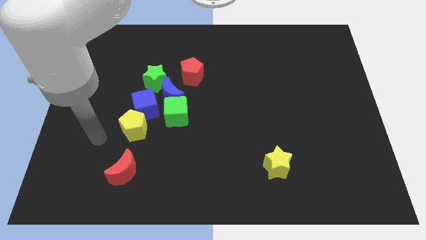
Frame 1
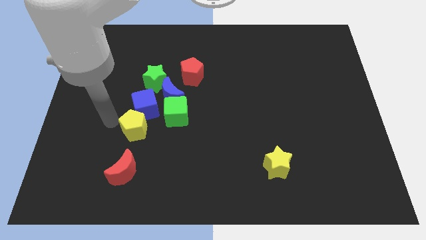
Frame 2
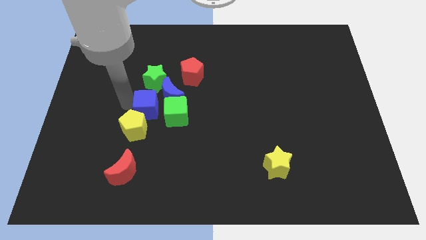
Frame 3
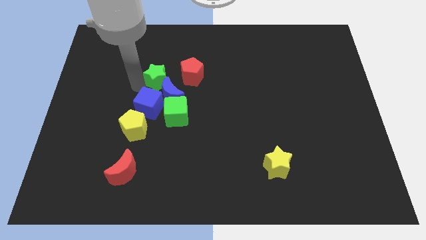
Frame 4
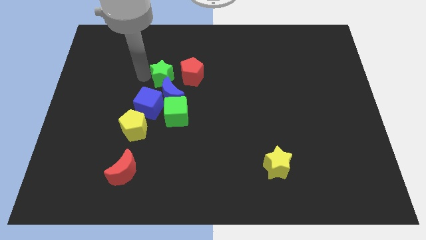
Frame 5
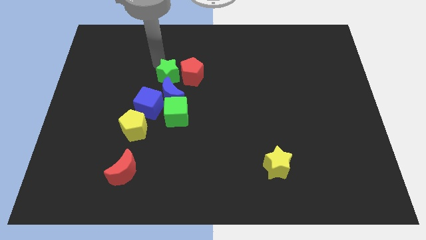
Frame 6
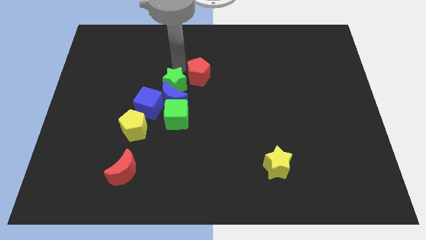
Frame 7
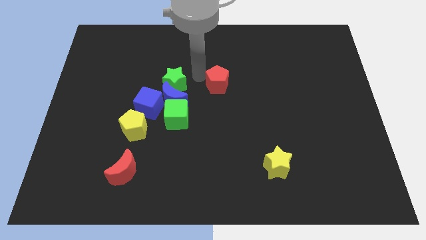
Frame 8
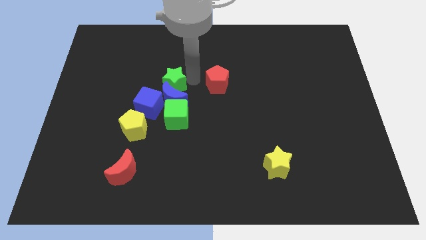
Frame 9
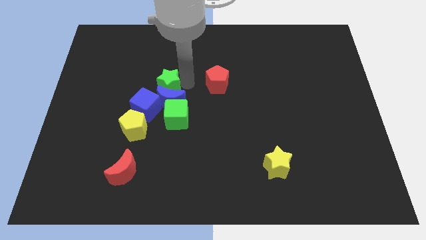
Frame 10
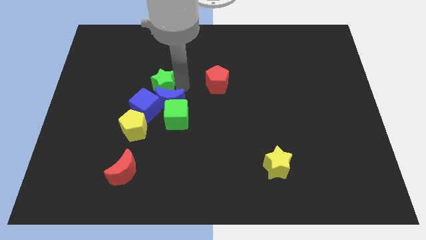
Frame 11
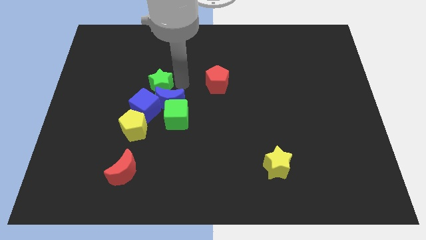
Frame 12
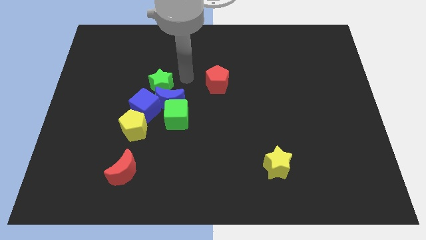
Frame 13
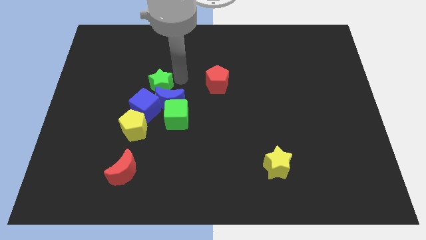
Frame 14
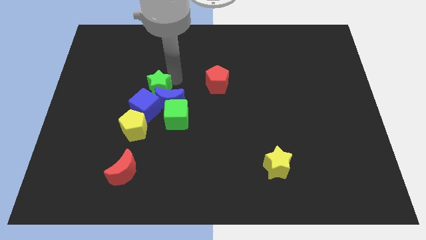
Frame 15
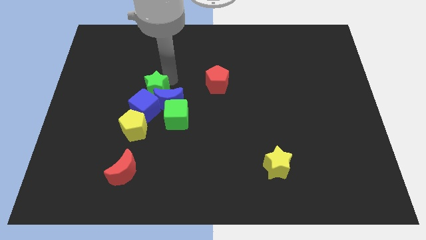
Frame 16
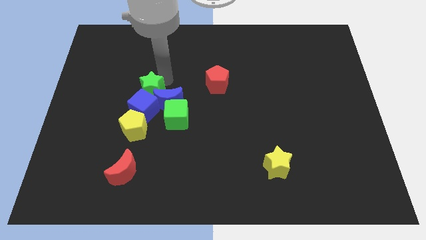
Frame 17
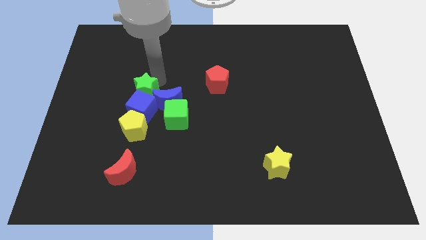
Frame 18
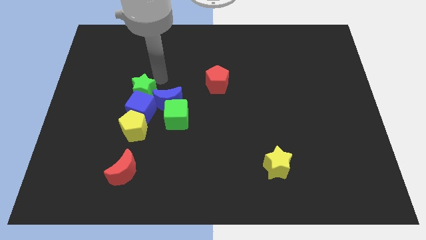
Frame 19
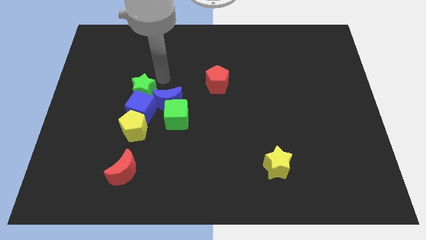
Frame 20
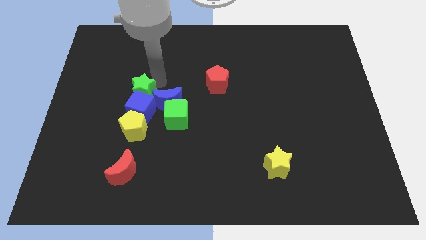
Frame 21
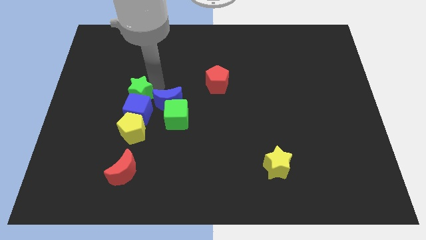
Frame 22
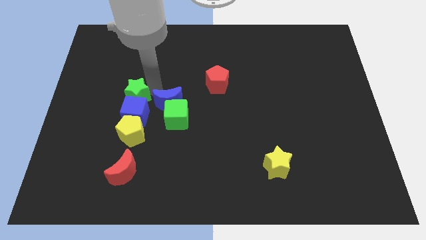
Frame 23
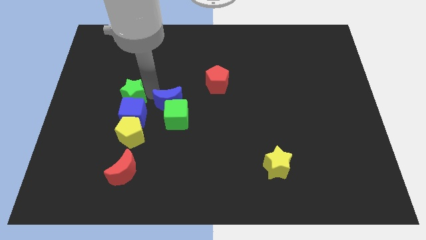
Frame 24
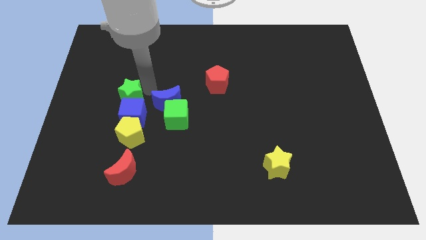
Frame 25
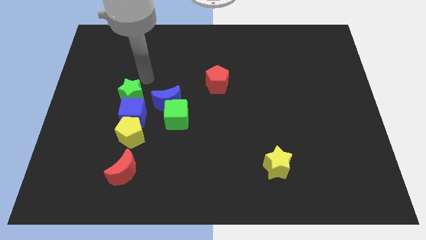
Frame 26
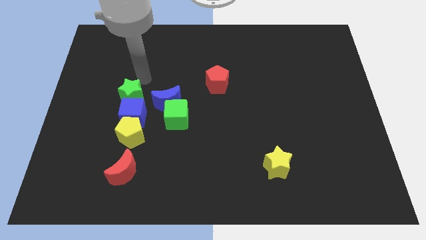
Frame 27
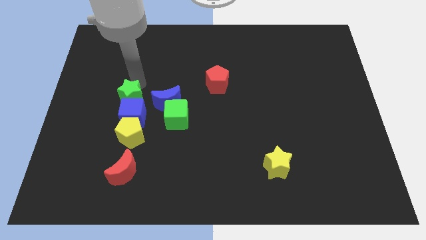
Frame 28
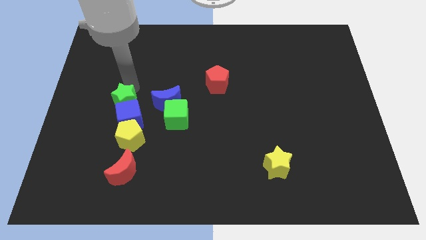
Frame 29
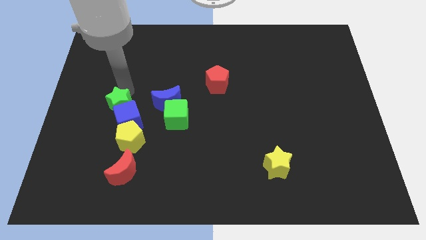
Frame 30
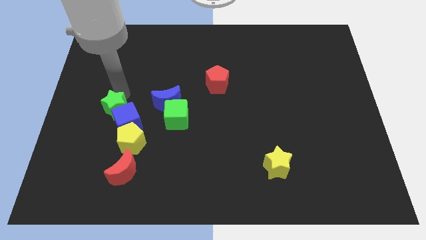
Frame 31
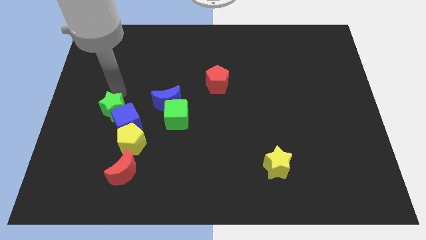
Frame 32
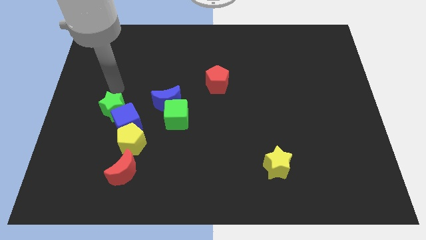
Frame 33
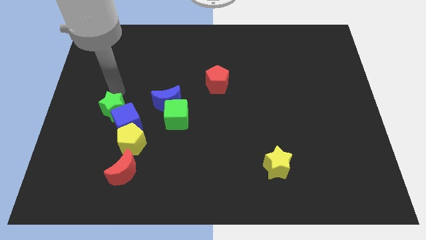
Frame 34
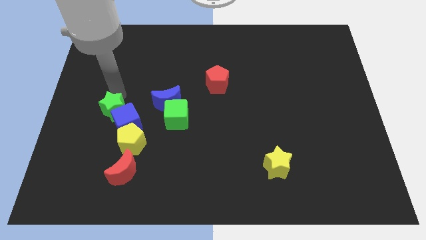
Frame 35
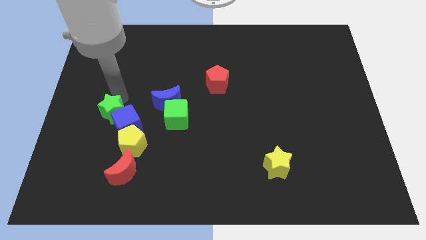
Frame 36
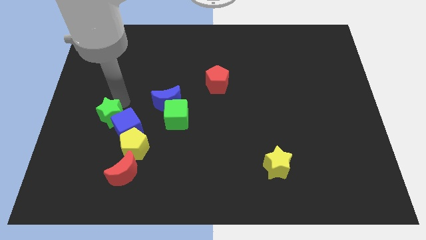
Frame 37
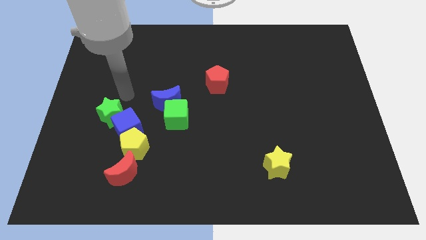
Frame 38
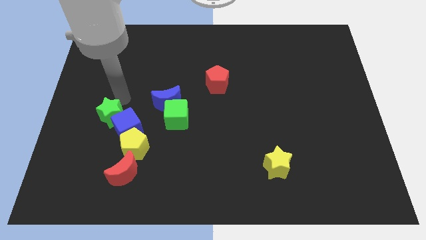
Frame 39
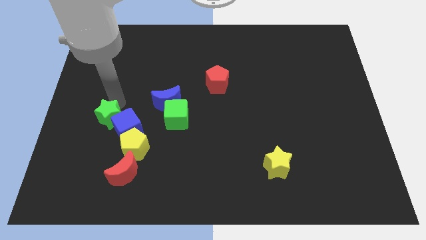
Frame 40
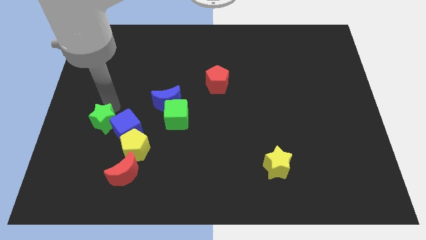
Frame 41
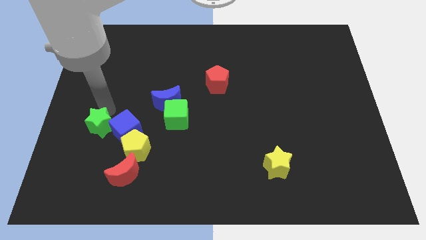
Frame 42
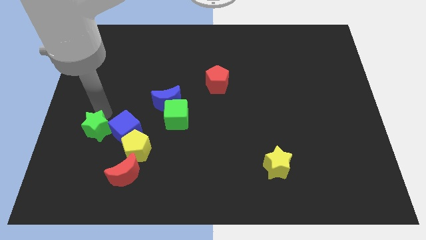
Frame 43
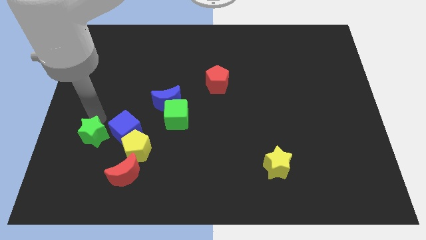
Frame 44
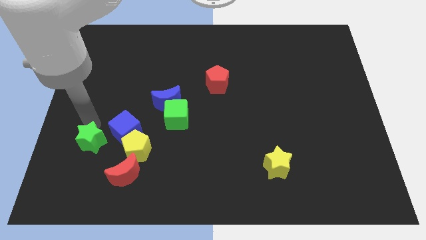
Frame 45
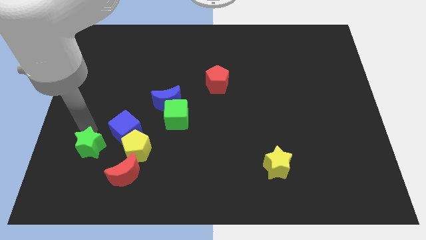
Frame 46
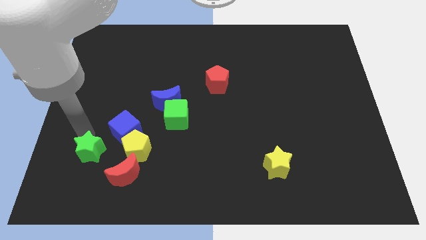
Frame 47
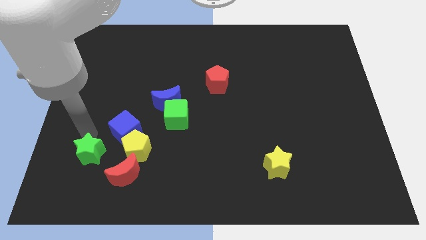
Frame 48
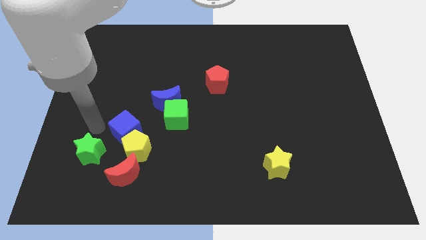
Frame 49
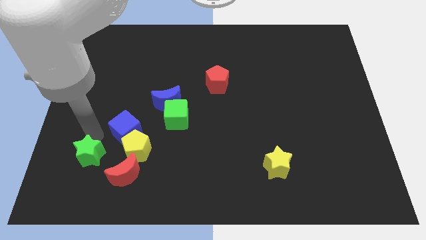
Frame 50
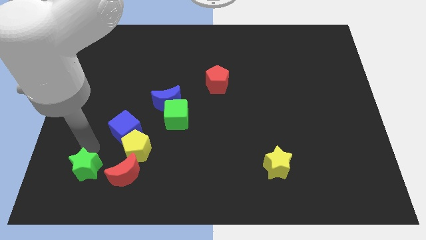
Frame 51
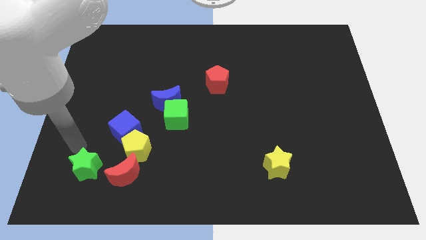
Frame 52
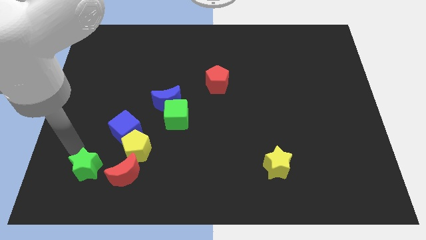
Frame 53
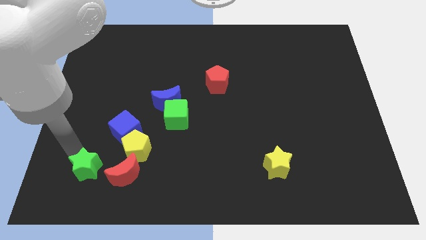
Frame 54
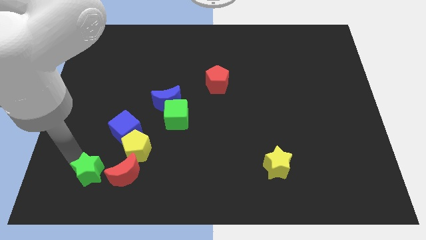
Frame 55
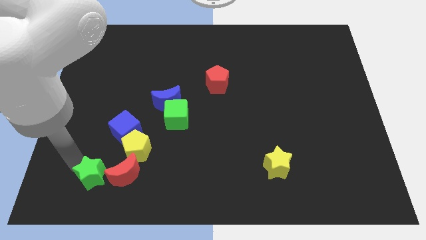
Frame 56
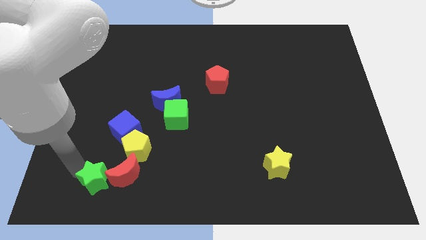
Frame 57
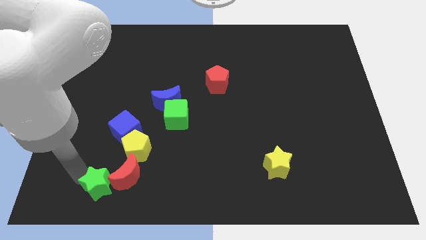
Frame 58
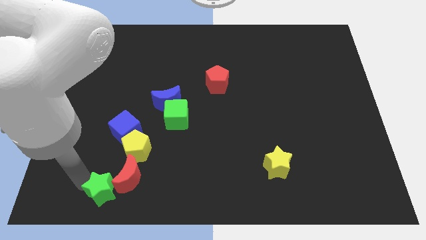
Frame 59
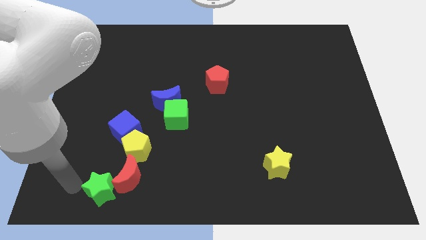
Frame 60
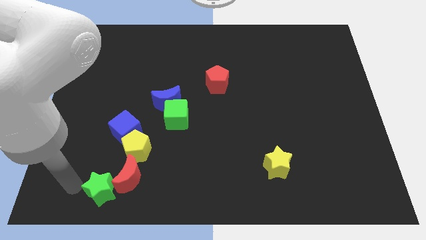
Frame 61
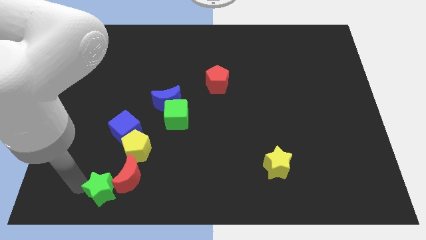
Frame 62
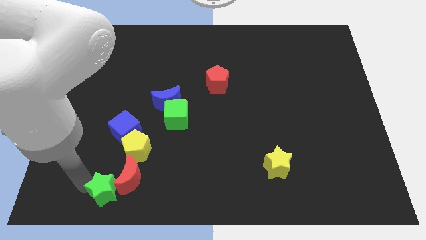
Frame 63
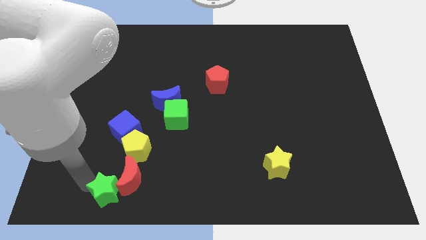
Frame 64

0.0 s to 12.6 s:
move the green star to the bottom of the yellow pentagon

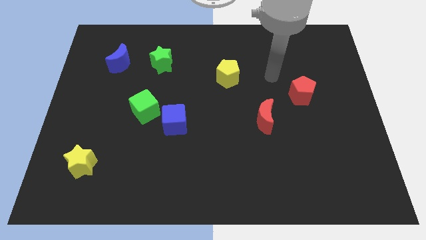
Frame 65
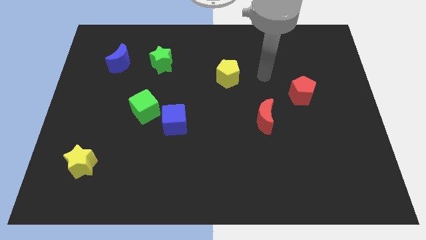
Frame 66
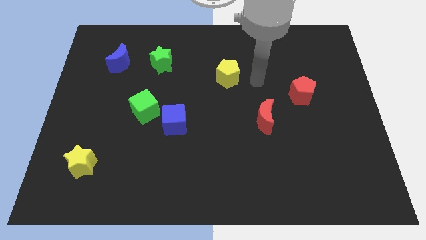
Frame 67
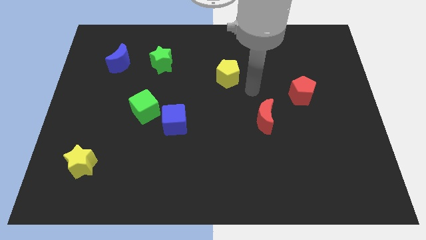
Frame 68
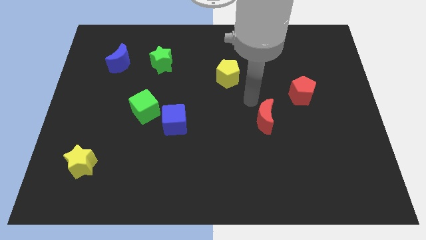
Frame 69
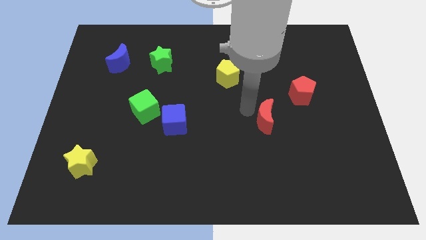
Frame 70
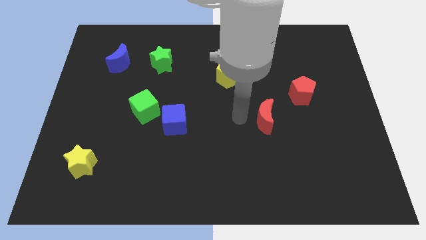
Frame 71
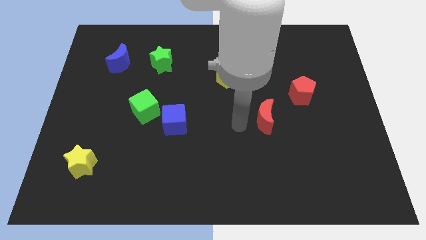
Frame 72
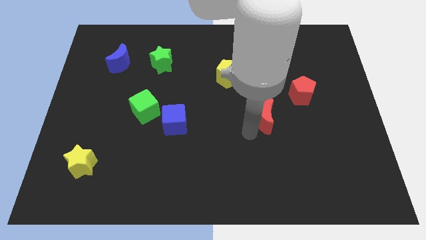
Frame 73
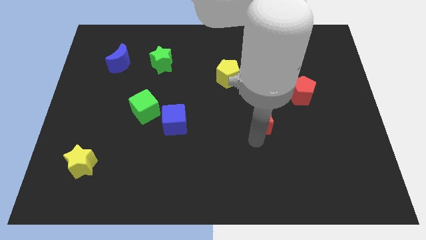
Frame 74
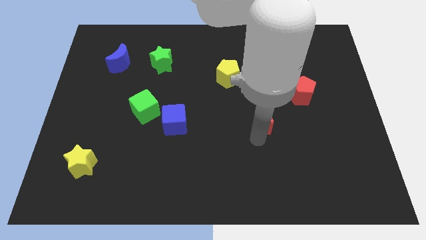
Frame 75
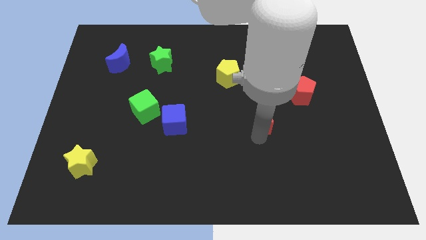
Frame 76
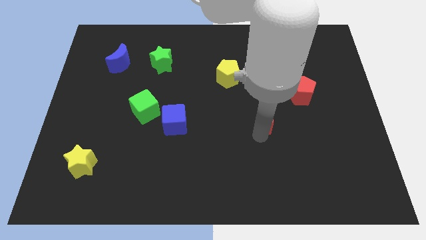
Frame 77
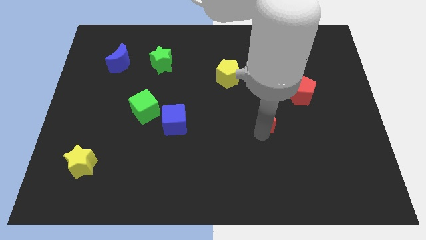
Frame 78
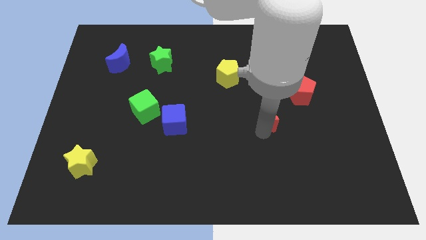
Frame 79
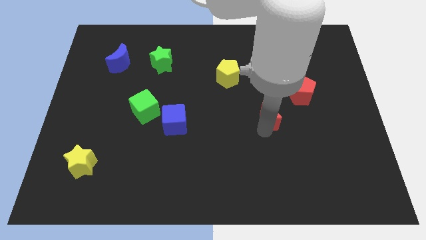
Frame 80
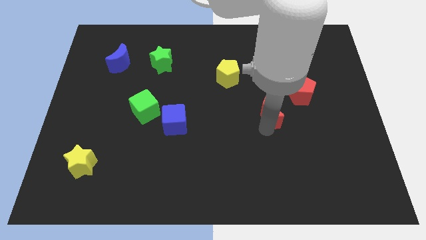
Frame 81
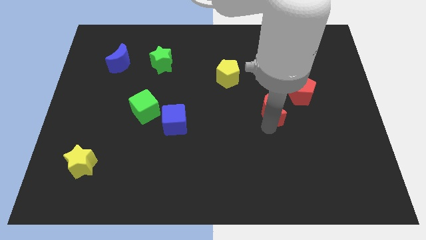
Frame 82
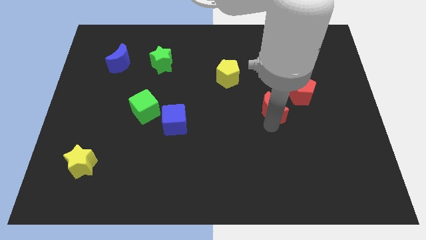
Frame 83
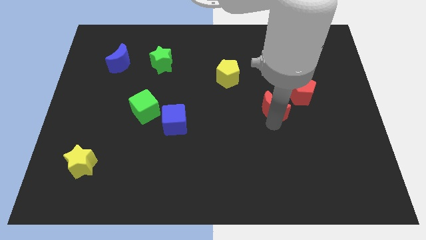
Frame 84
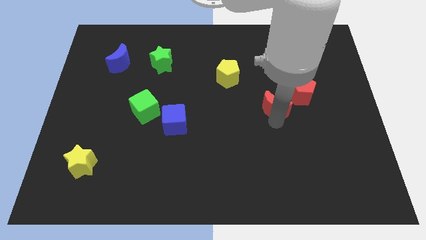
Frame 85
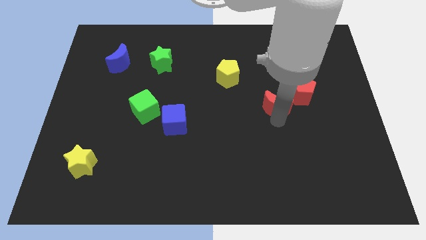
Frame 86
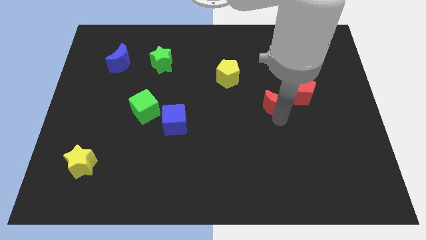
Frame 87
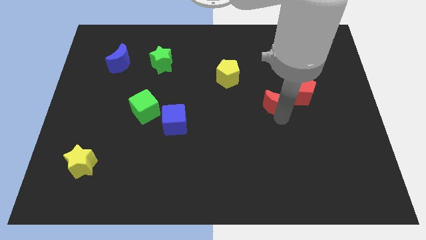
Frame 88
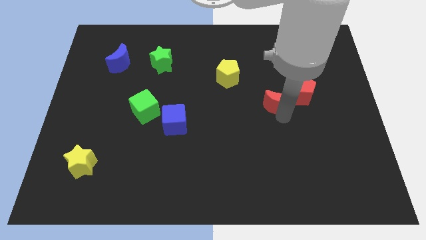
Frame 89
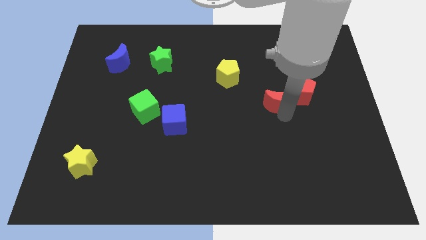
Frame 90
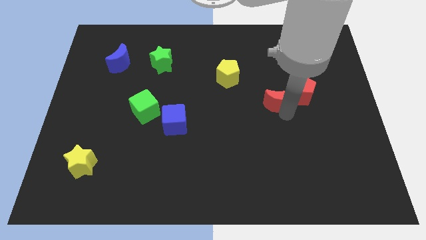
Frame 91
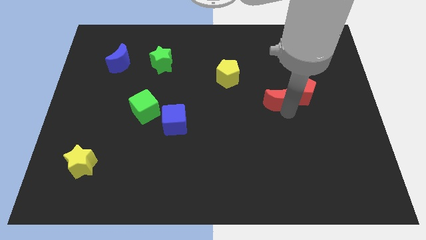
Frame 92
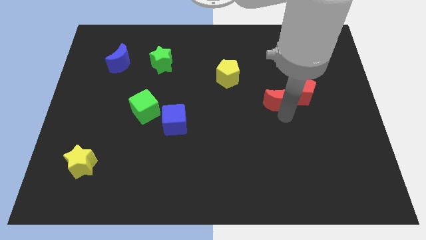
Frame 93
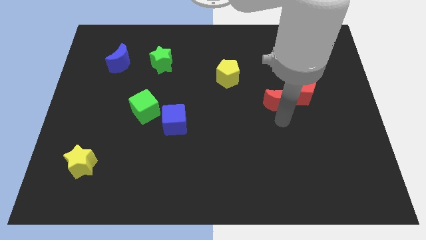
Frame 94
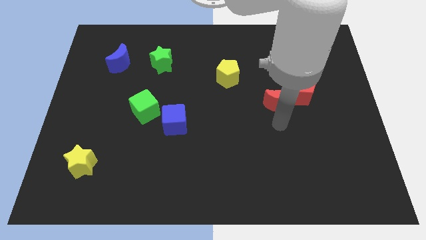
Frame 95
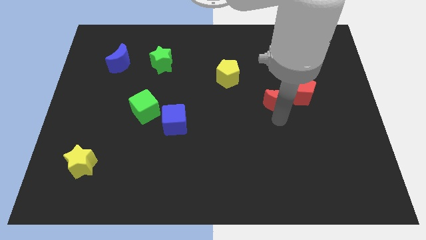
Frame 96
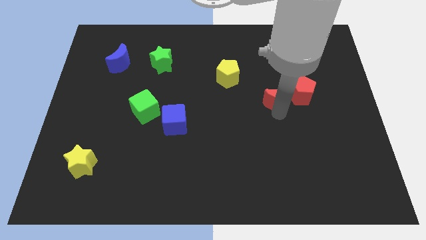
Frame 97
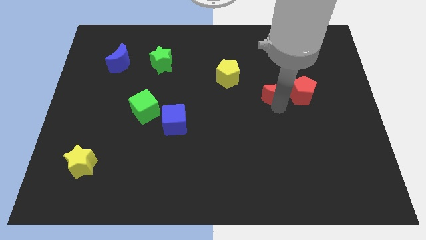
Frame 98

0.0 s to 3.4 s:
push the red moon diagonally up and to the left of the red pentagon
